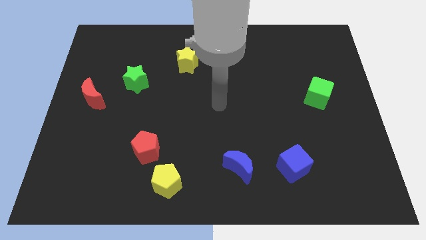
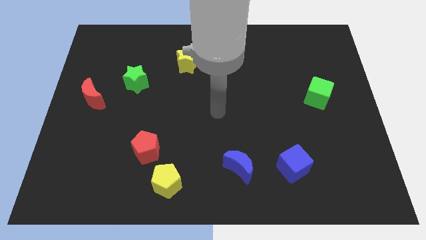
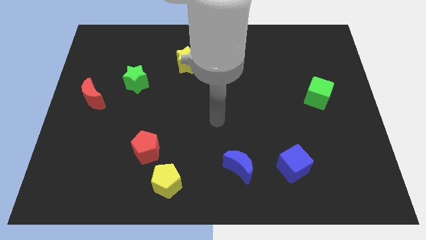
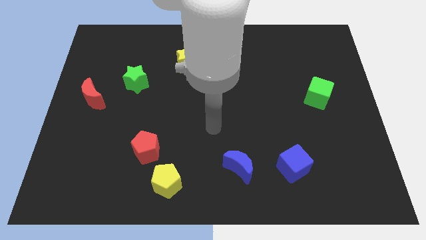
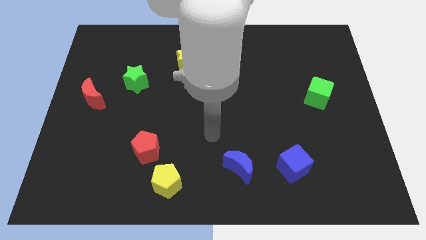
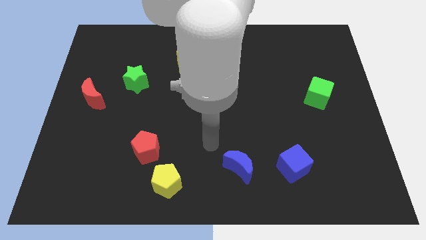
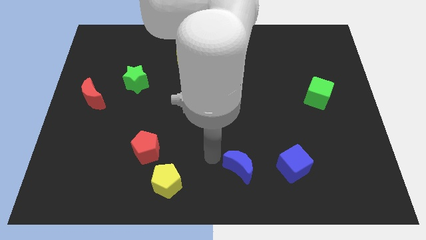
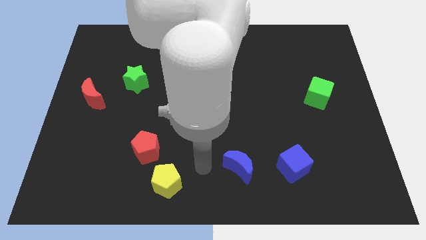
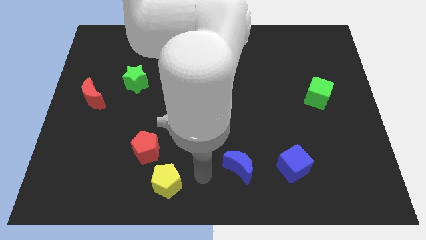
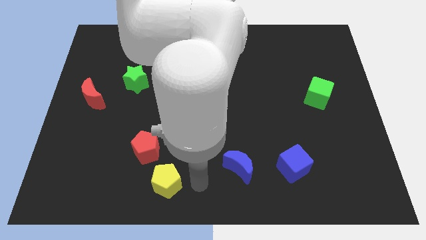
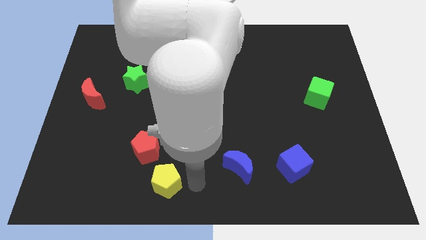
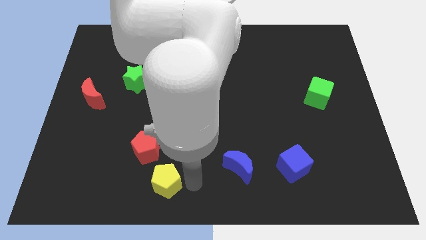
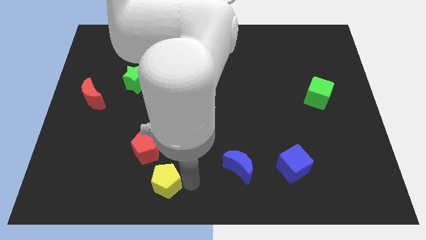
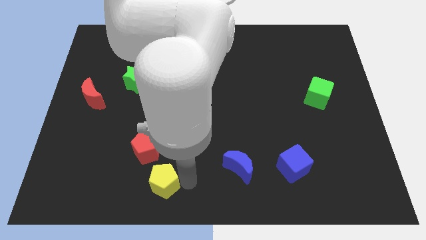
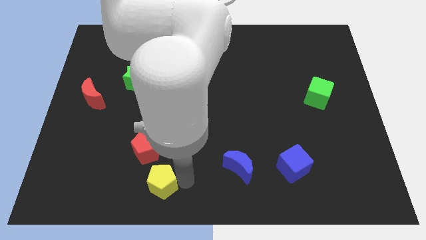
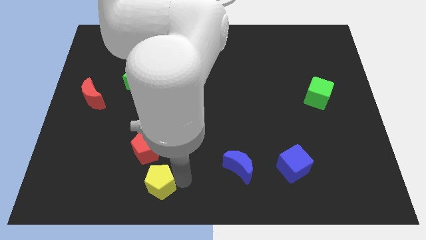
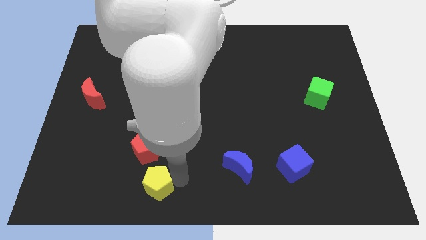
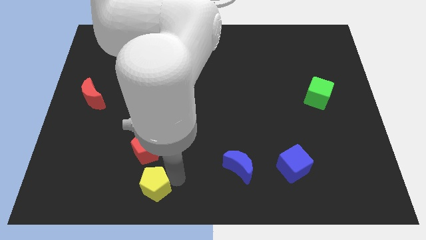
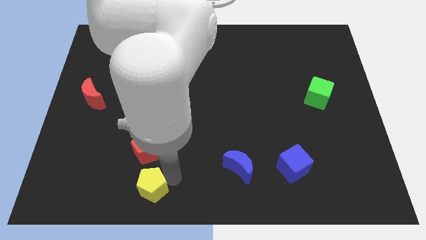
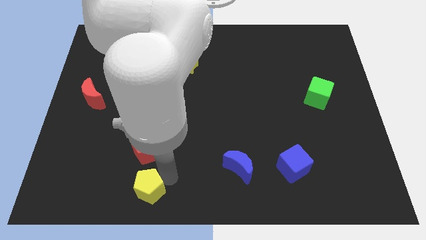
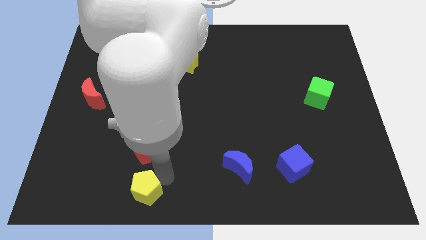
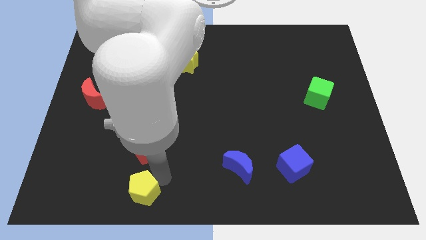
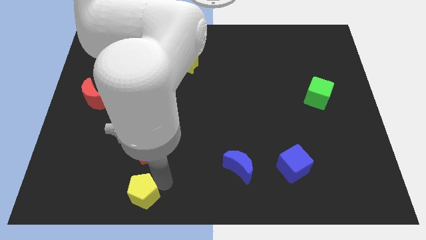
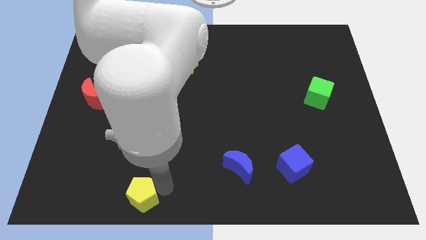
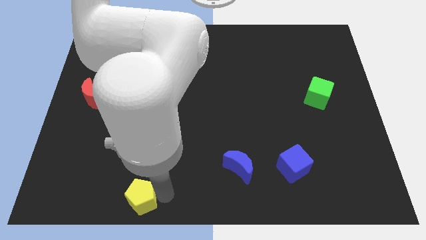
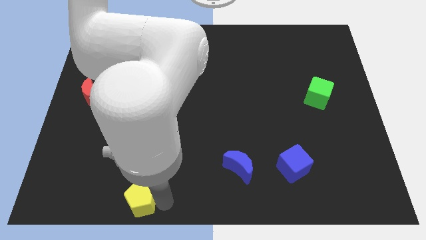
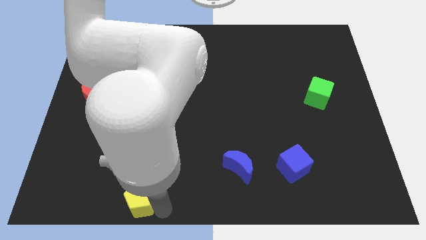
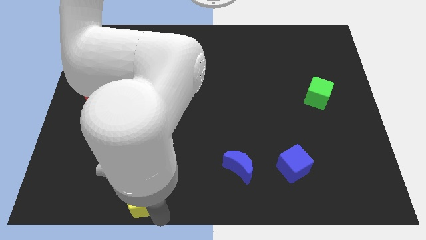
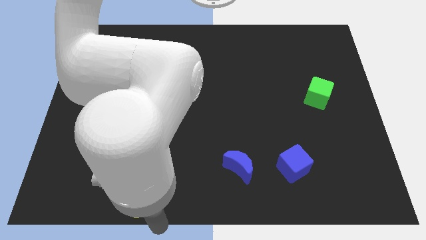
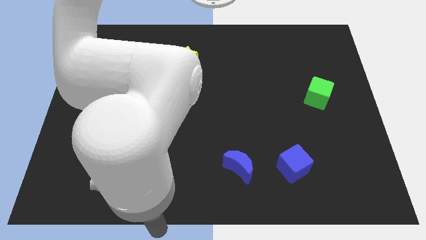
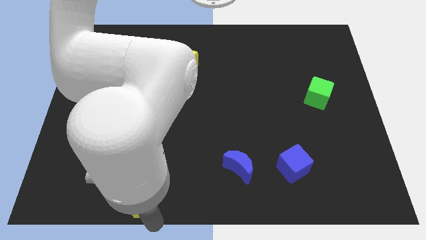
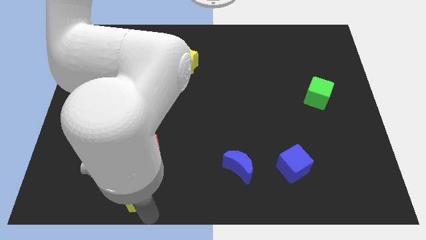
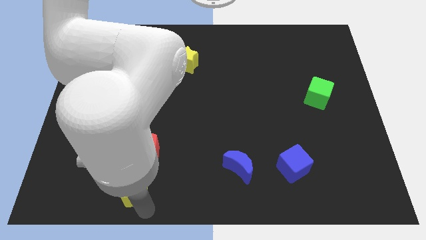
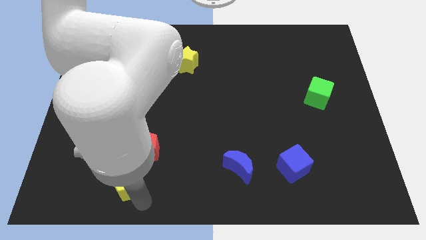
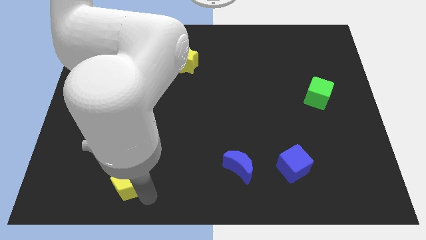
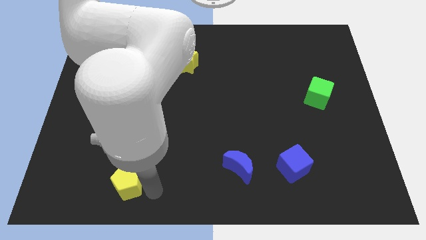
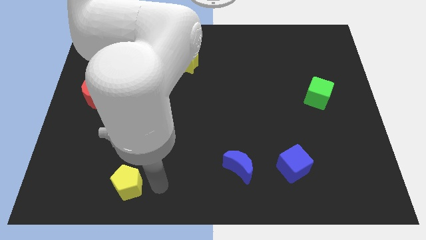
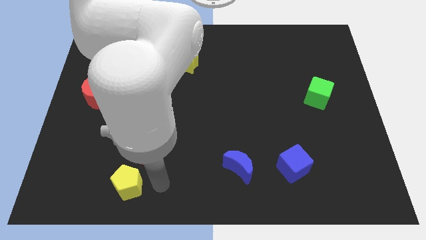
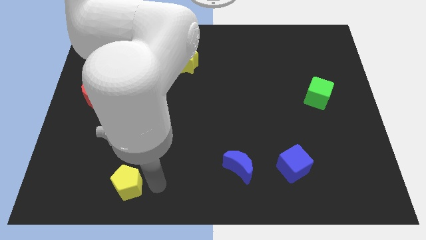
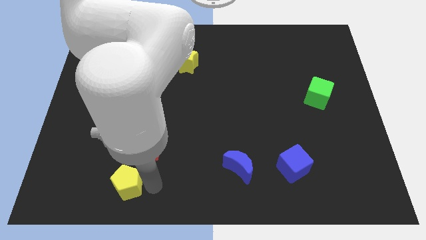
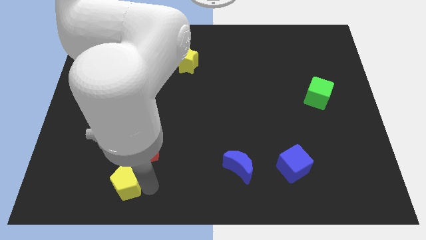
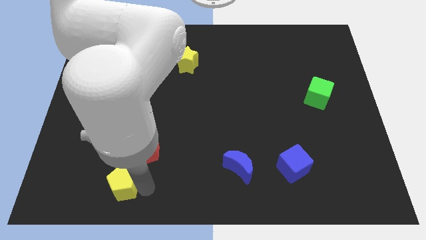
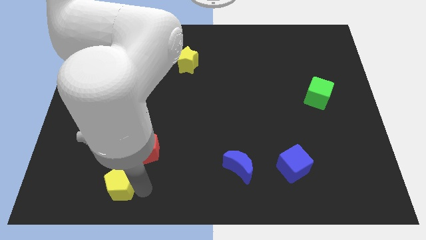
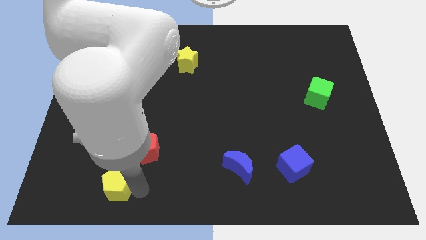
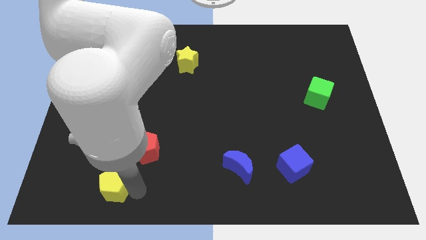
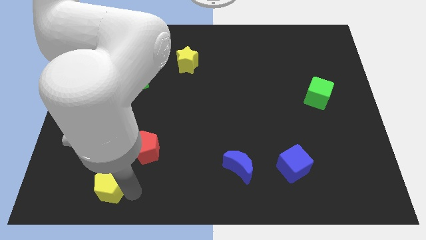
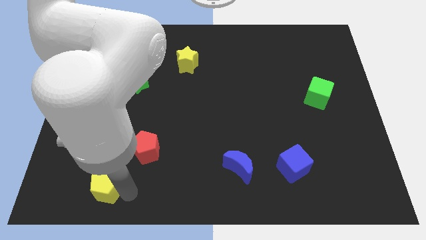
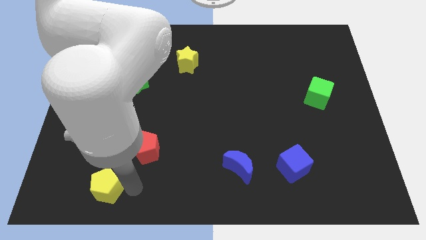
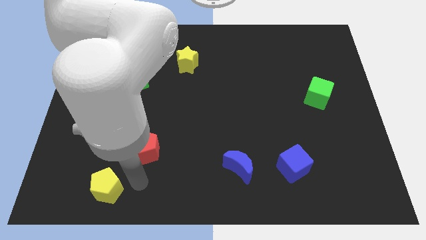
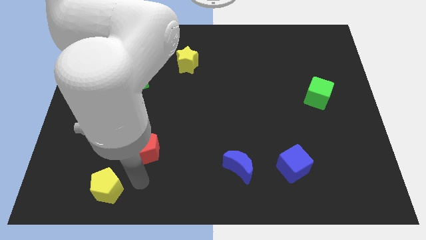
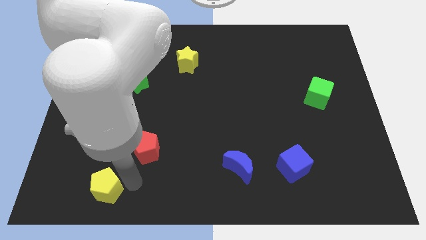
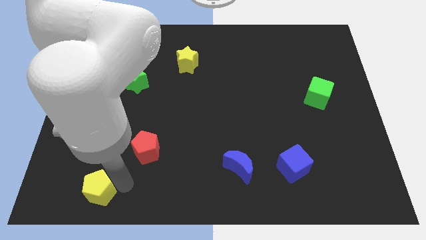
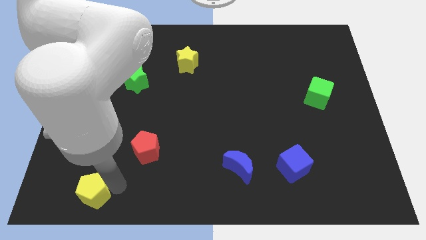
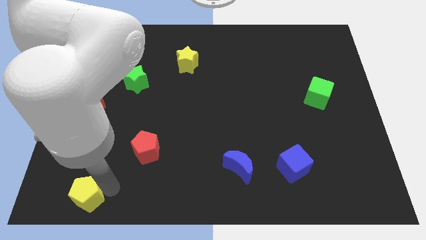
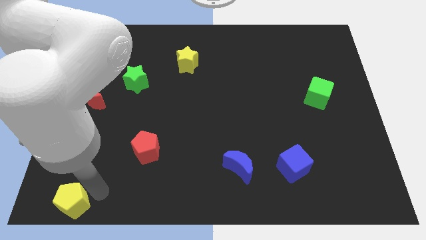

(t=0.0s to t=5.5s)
put the yellow pentagon to the lower left corner

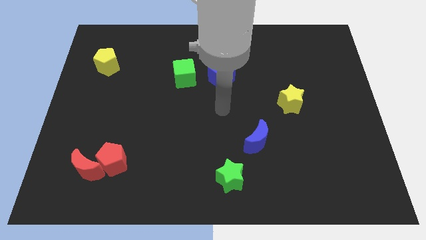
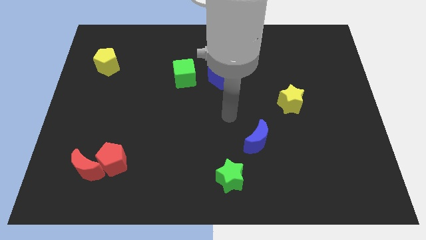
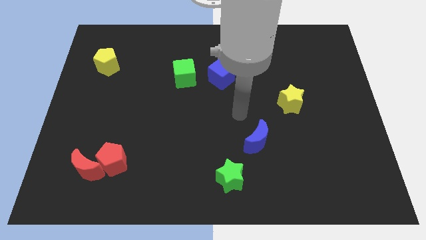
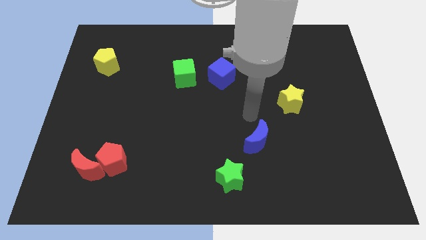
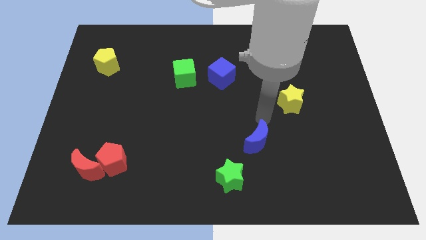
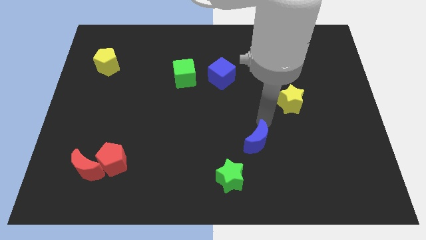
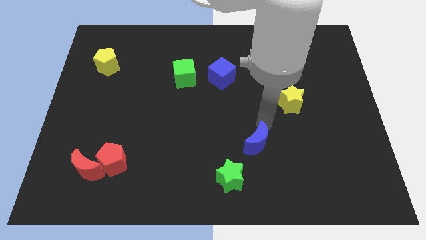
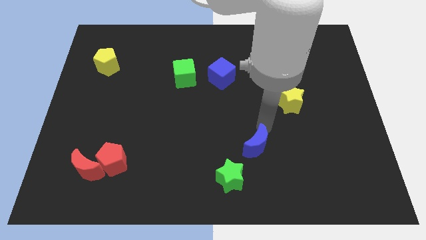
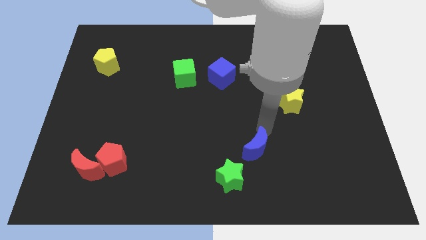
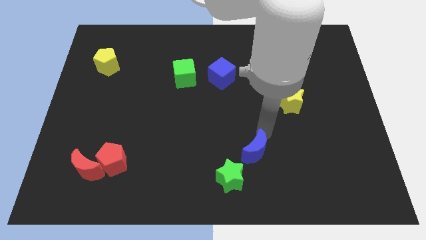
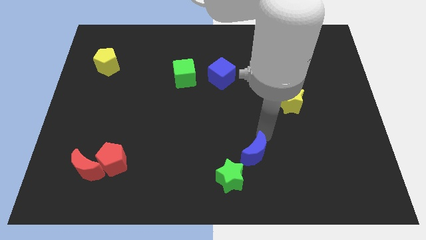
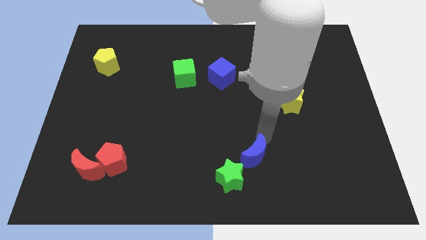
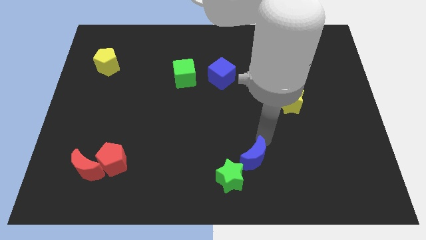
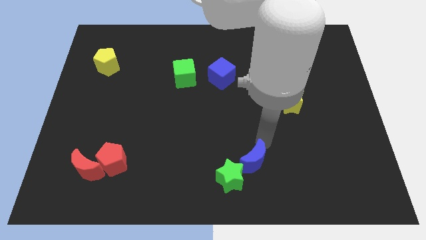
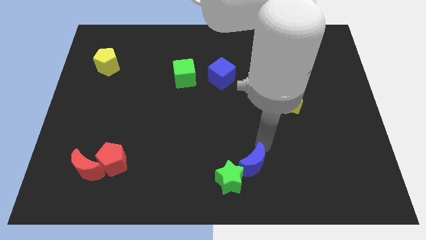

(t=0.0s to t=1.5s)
put the blue moon to the bottom
